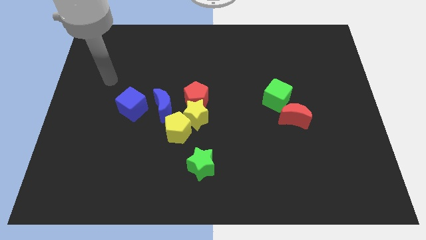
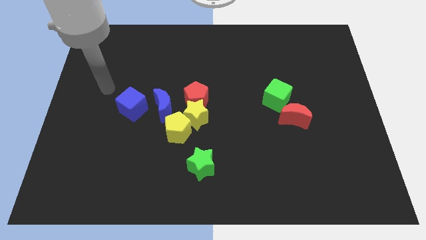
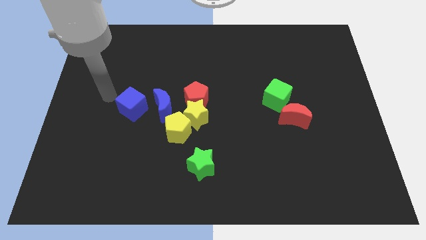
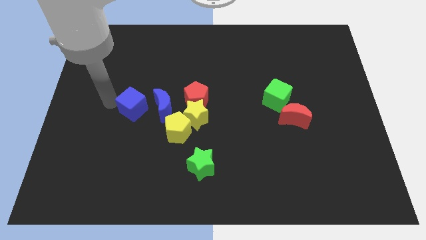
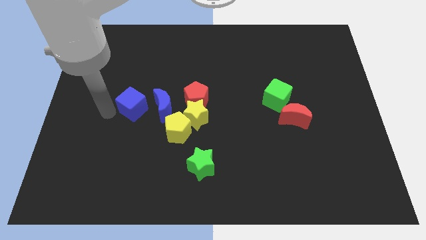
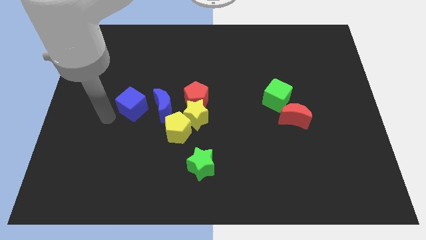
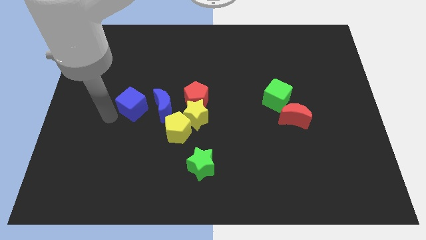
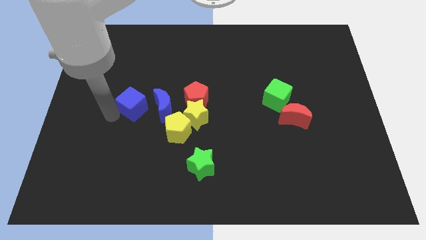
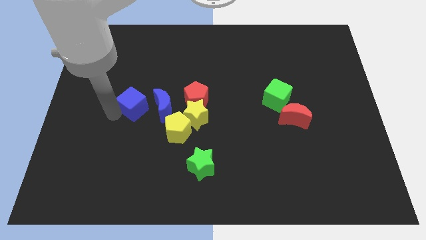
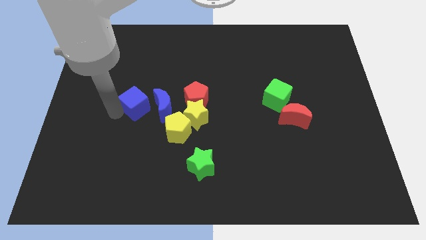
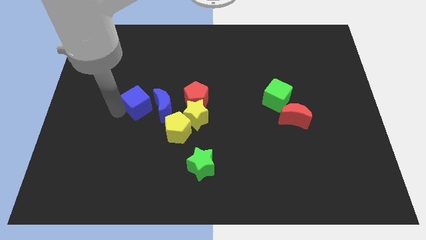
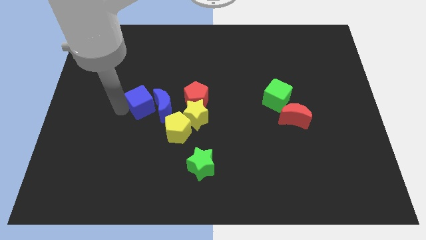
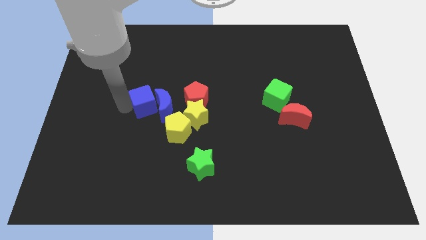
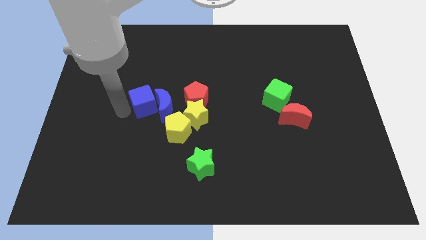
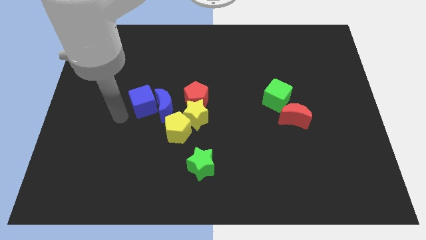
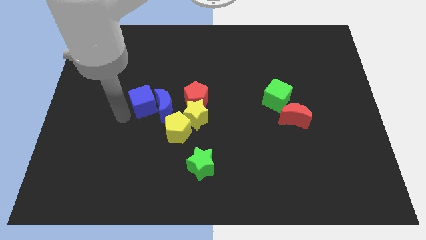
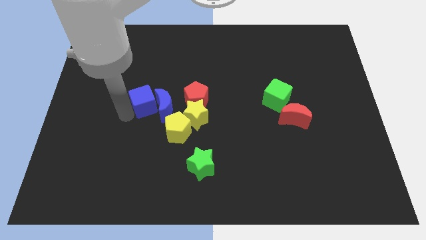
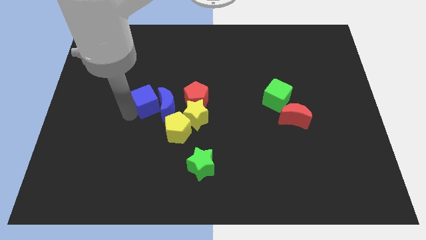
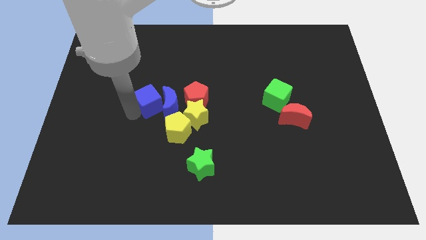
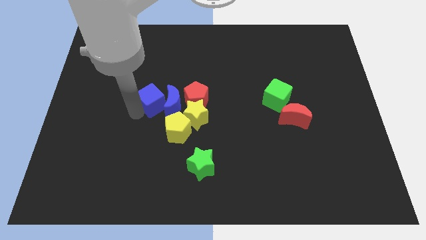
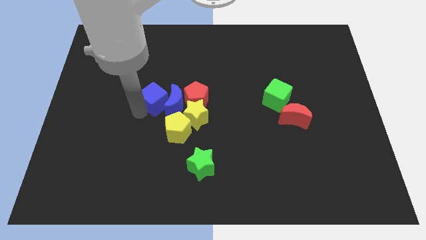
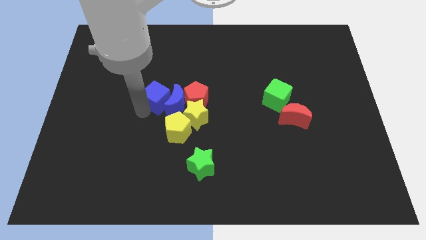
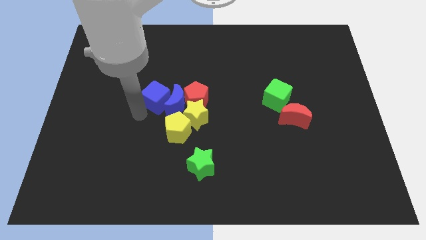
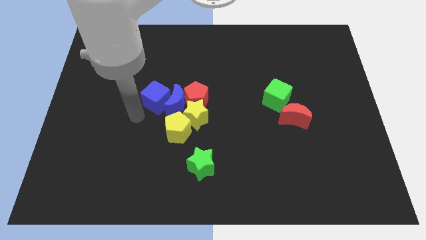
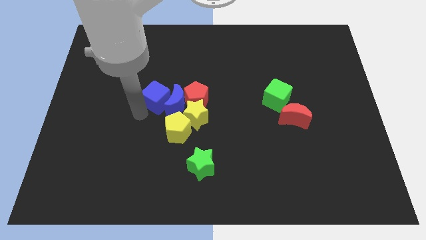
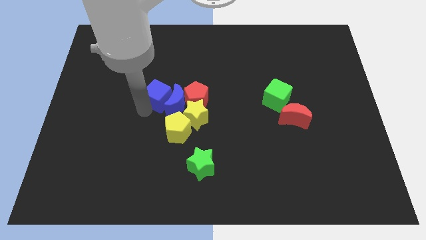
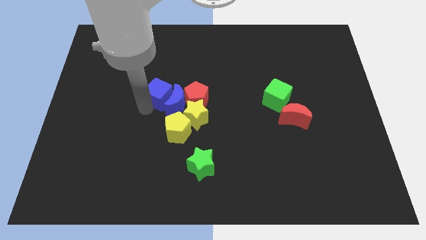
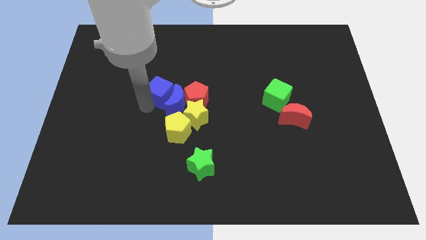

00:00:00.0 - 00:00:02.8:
slightly push the blue cube up and right diagonally

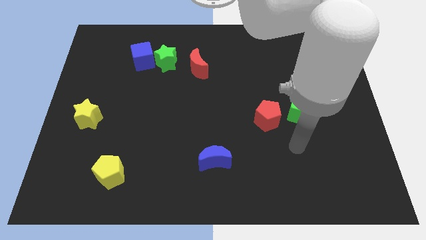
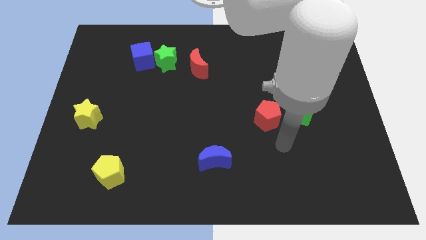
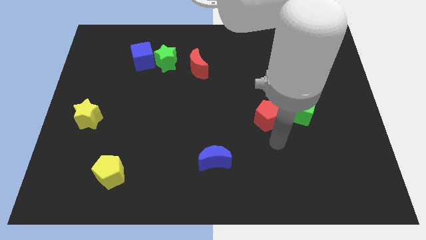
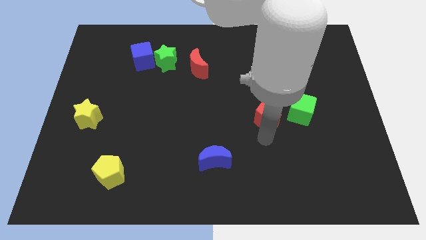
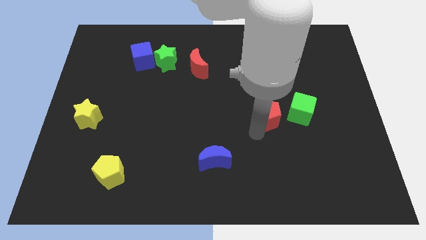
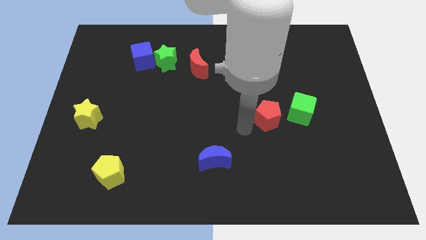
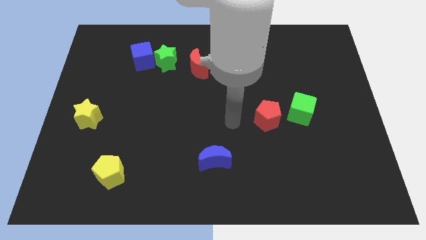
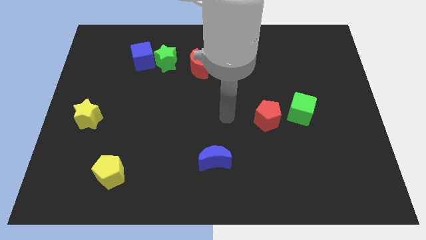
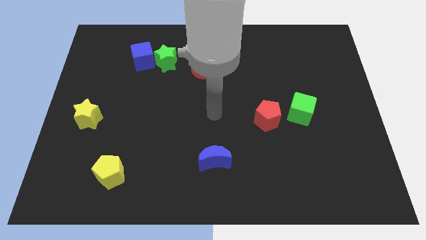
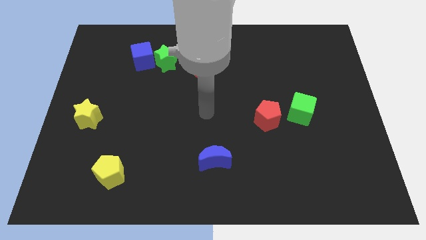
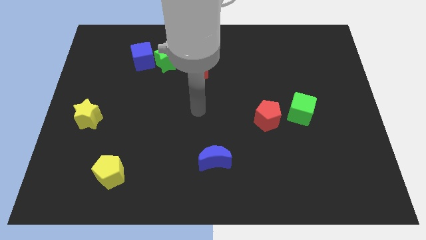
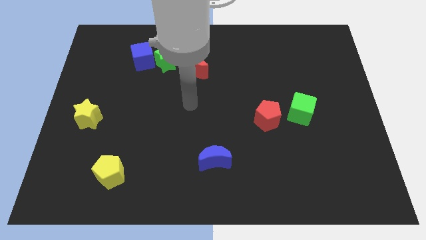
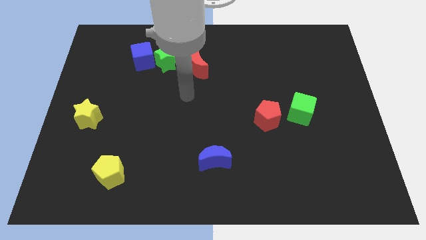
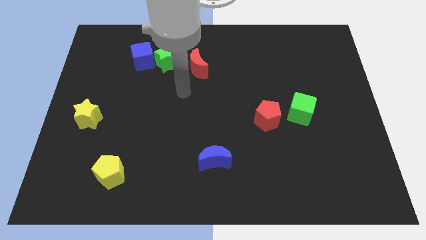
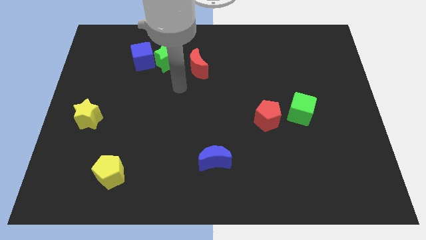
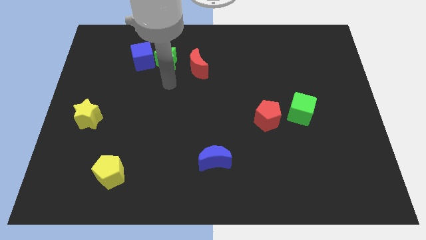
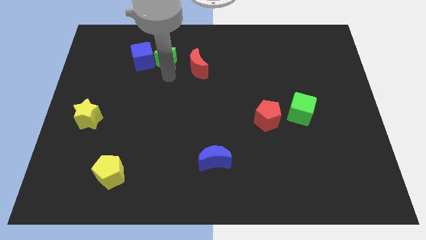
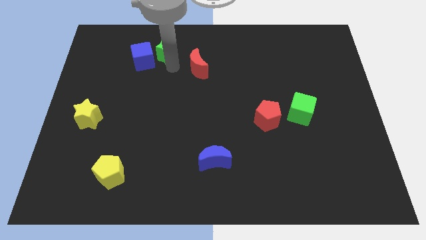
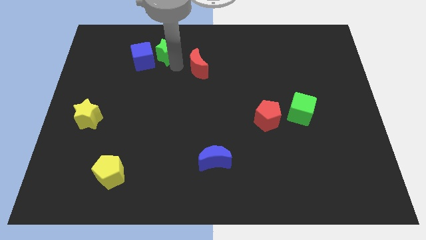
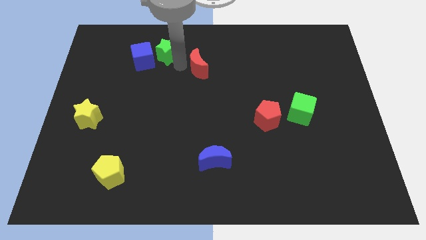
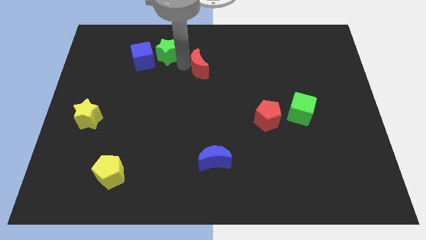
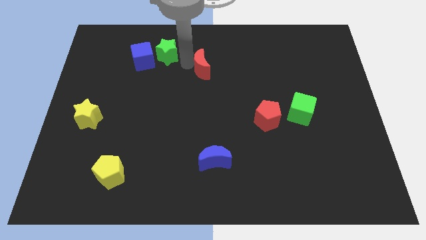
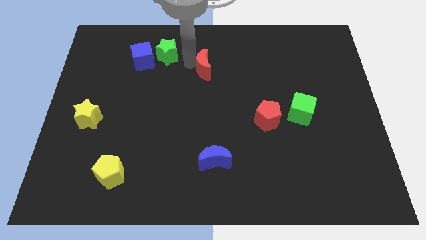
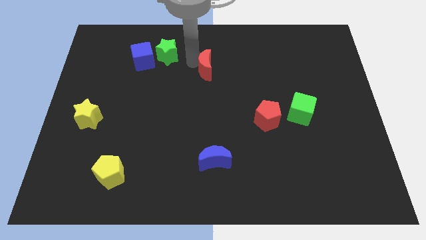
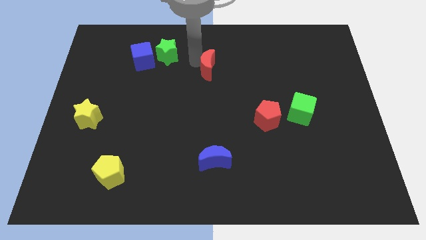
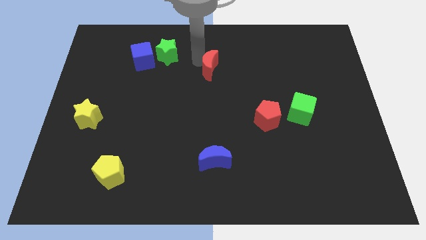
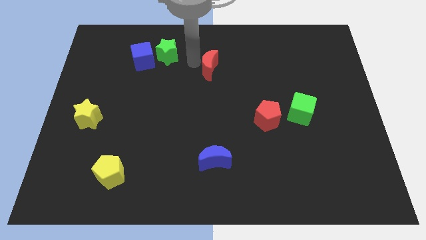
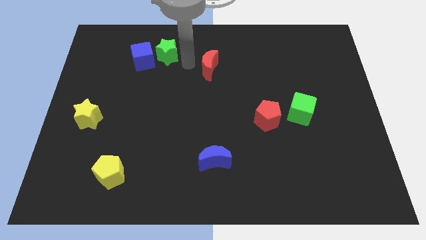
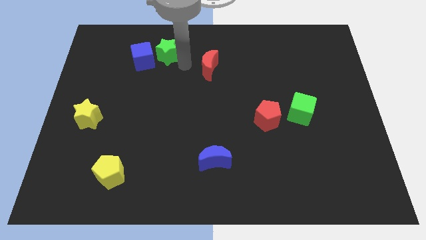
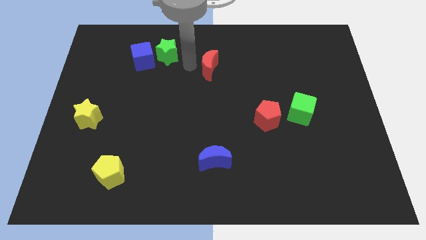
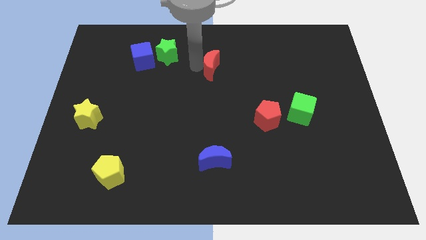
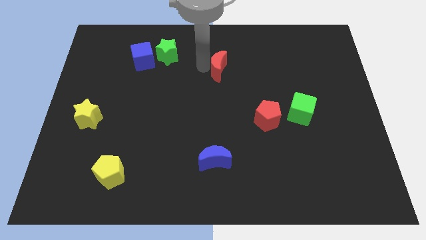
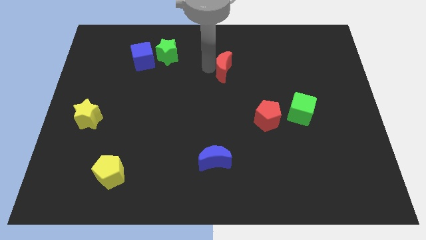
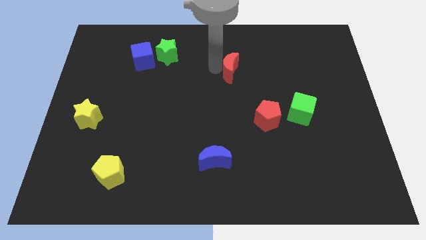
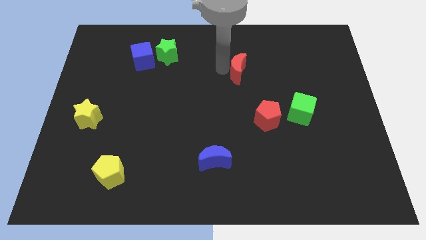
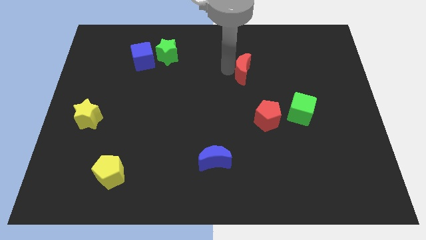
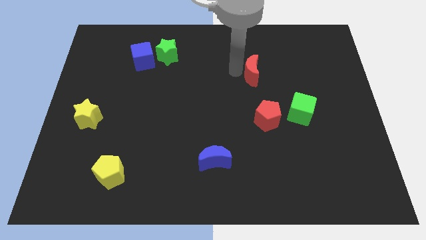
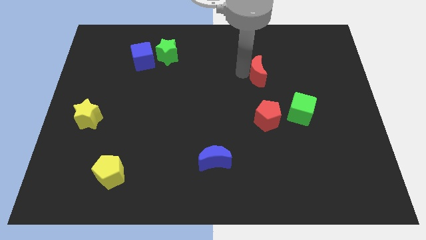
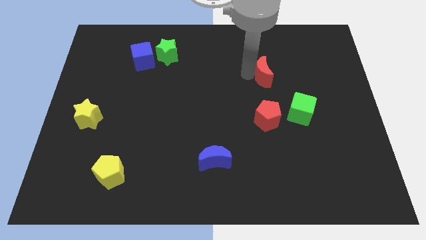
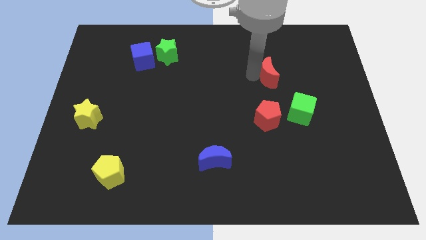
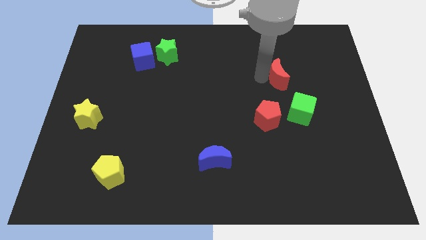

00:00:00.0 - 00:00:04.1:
push the red moon to the right

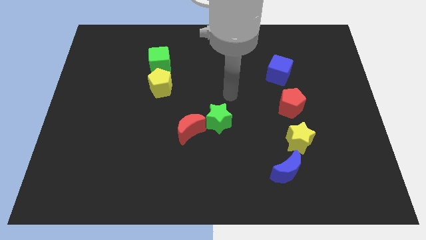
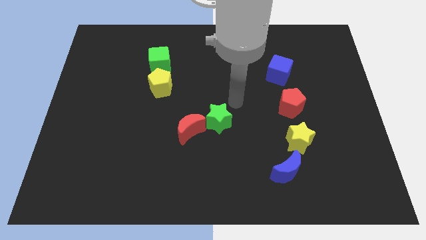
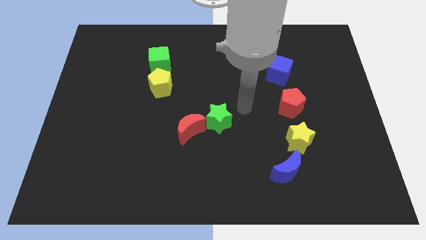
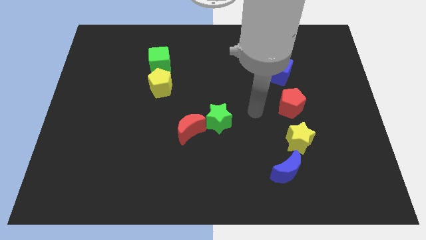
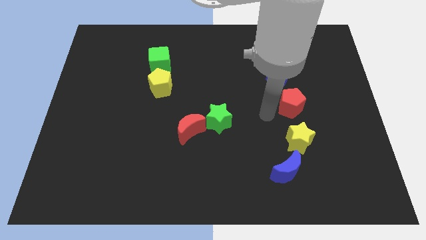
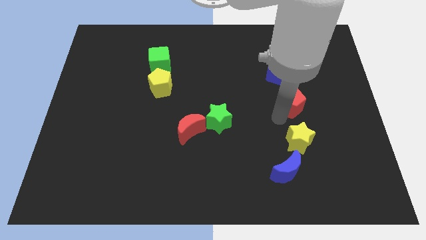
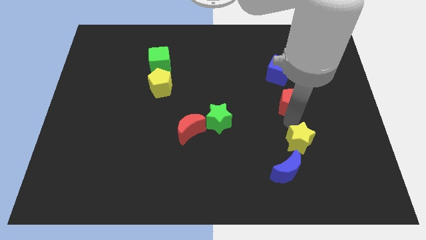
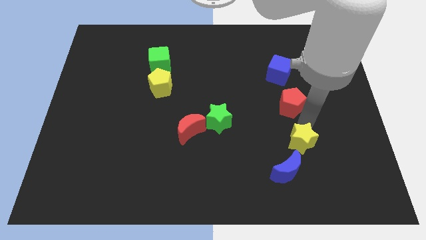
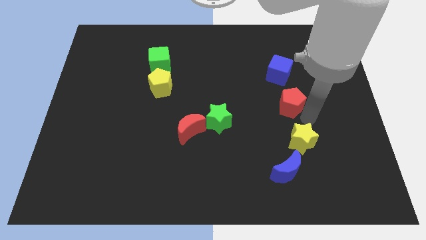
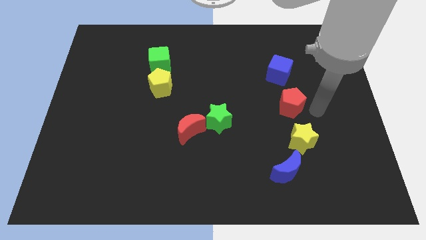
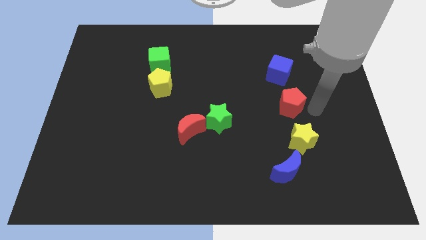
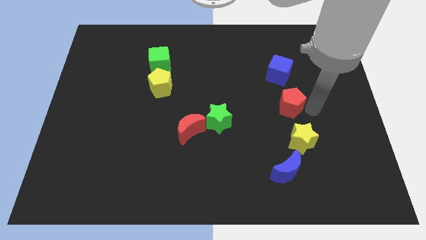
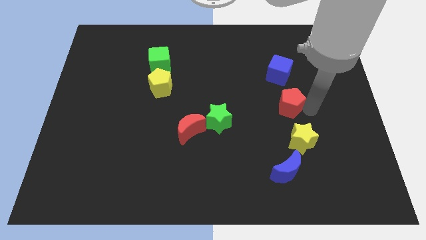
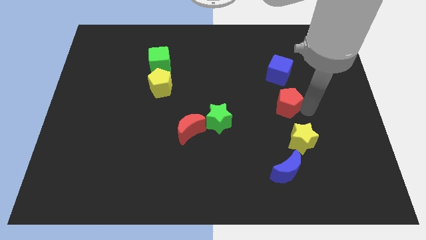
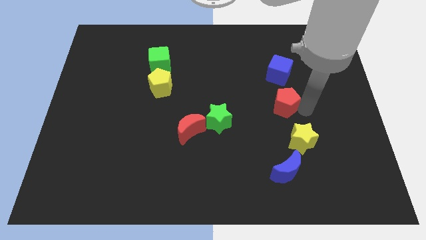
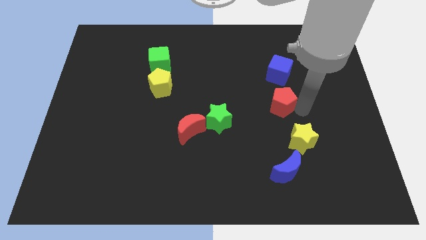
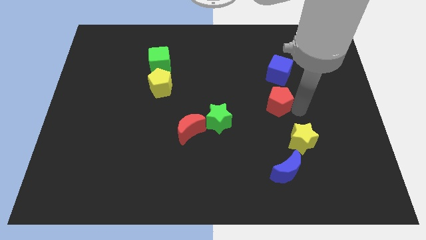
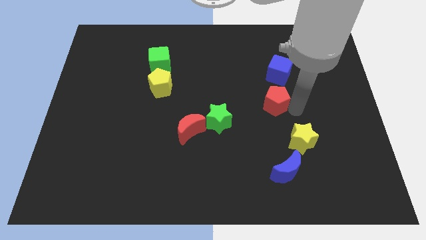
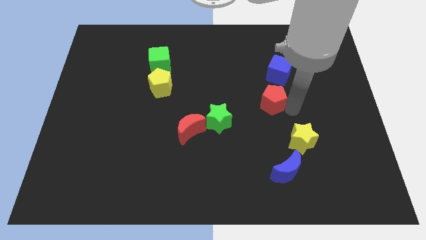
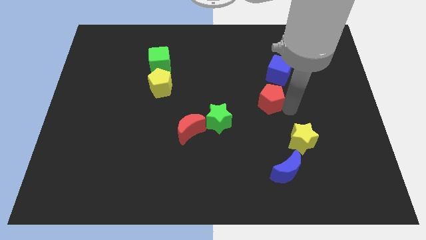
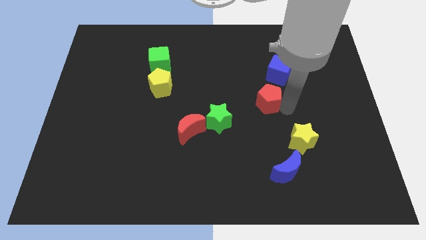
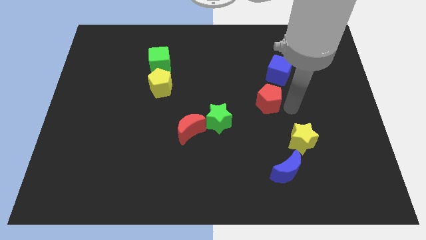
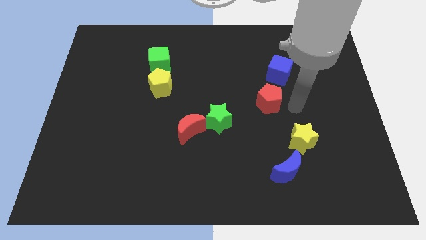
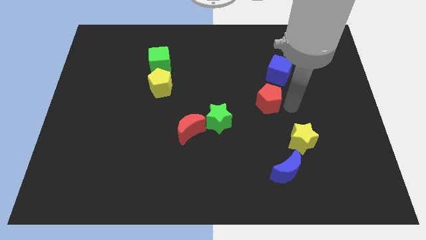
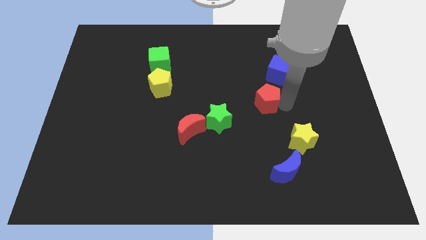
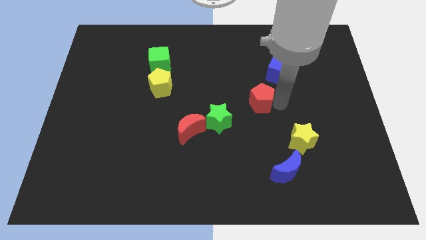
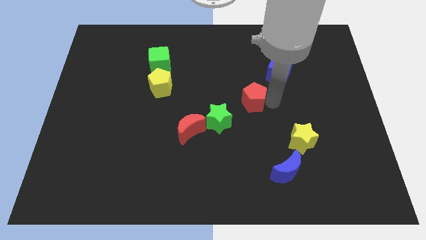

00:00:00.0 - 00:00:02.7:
push the red pentagon to the left a little
